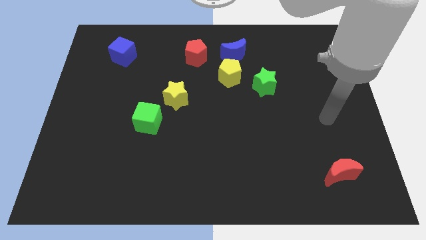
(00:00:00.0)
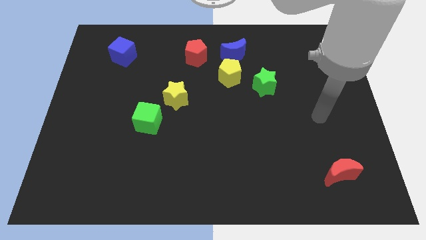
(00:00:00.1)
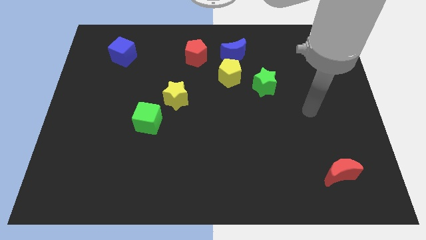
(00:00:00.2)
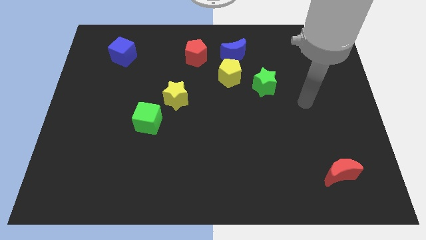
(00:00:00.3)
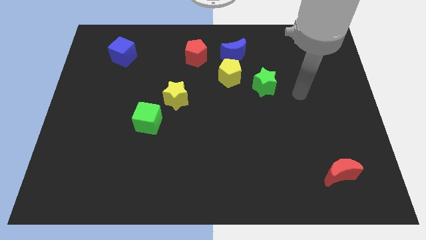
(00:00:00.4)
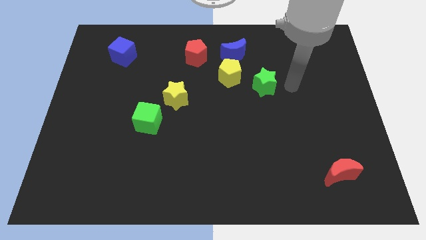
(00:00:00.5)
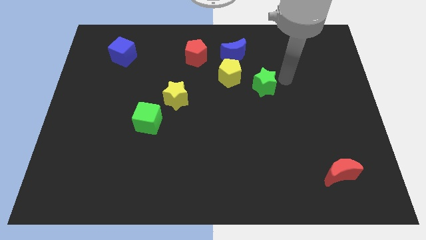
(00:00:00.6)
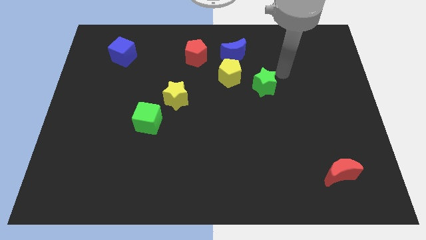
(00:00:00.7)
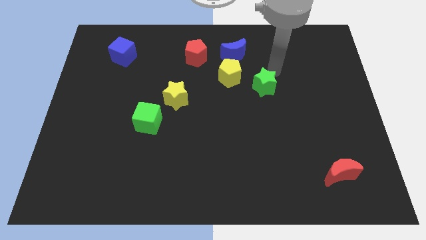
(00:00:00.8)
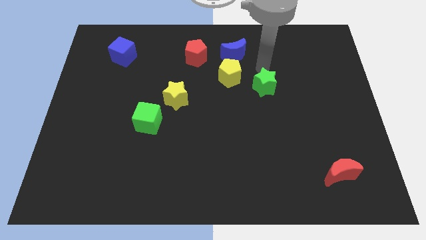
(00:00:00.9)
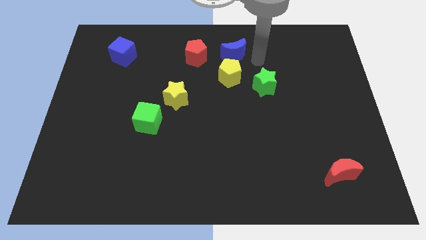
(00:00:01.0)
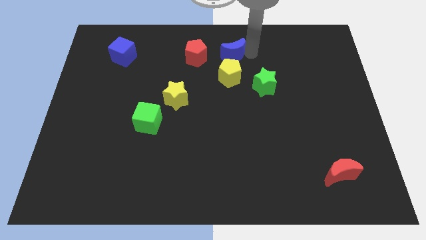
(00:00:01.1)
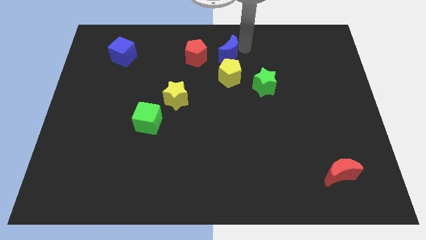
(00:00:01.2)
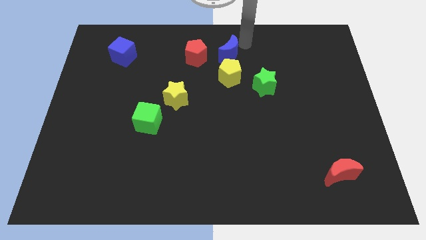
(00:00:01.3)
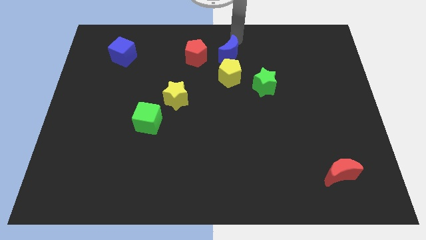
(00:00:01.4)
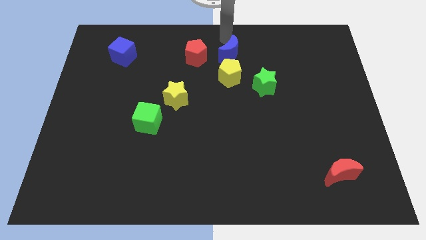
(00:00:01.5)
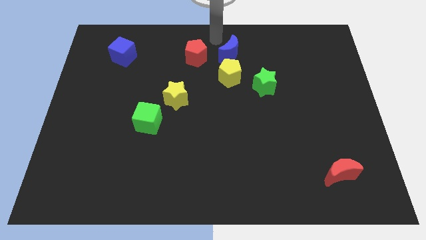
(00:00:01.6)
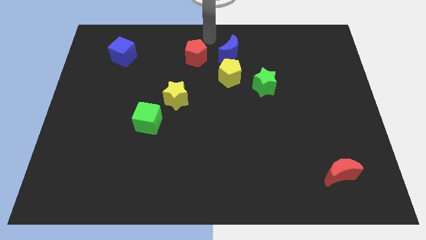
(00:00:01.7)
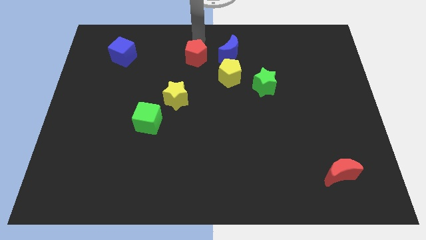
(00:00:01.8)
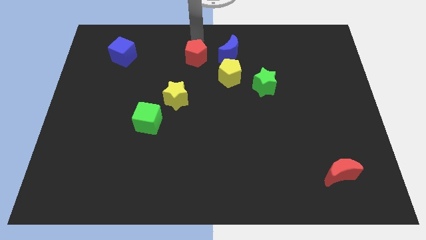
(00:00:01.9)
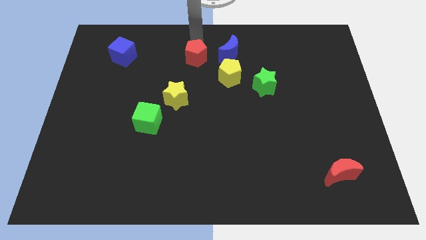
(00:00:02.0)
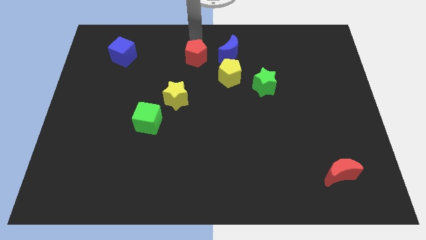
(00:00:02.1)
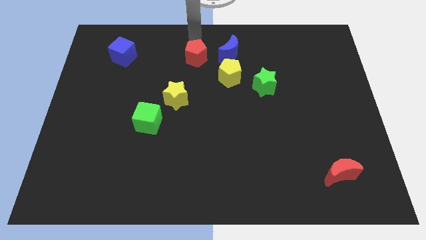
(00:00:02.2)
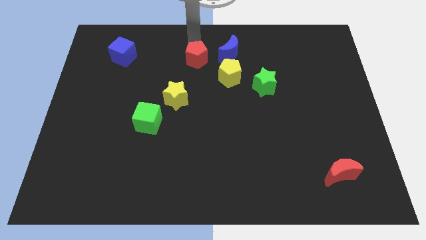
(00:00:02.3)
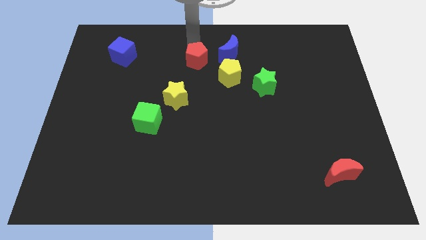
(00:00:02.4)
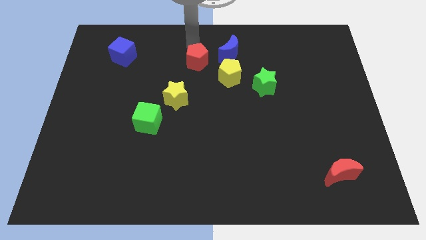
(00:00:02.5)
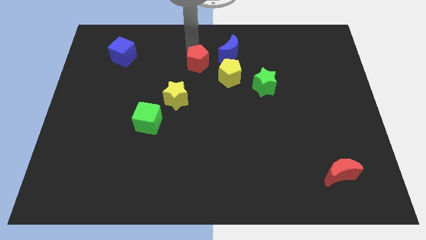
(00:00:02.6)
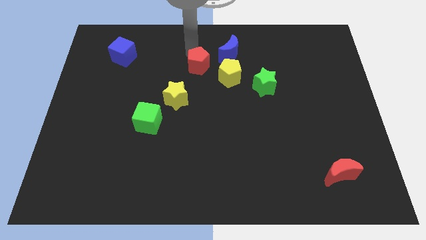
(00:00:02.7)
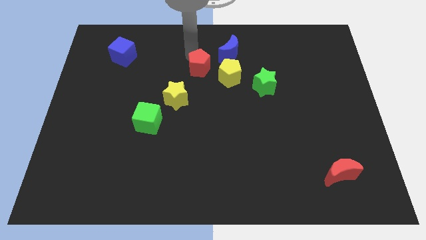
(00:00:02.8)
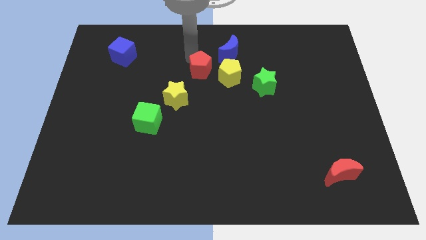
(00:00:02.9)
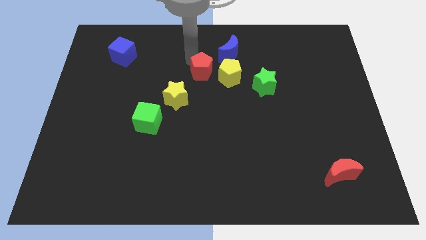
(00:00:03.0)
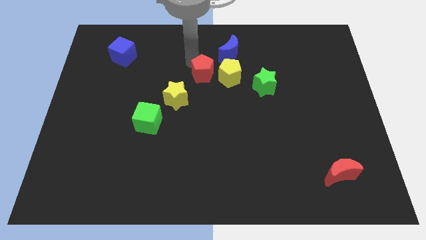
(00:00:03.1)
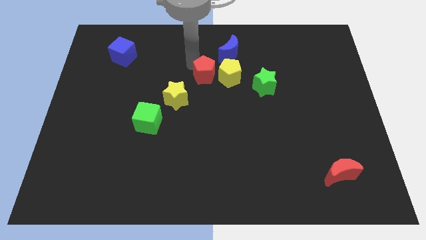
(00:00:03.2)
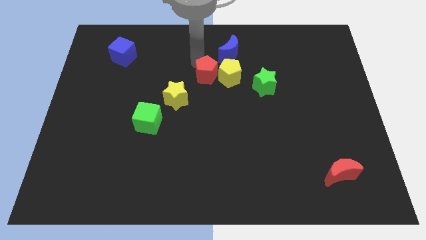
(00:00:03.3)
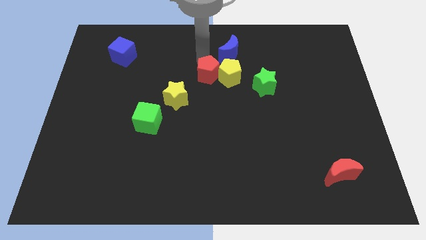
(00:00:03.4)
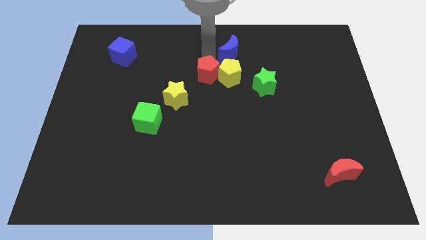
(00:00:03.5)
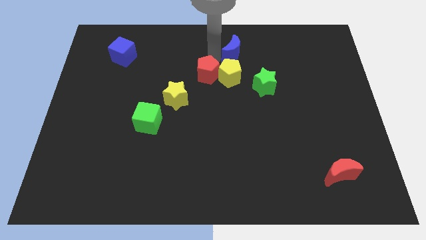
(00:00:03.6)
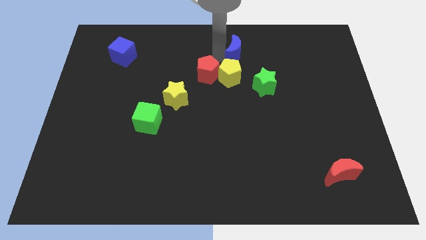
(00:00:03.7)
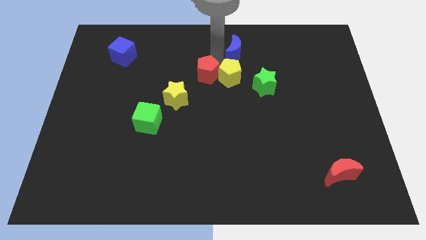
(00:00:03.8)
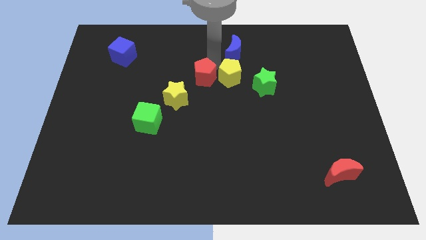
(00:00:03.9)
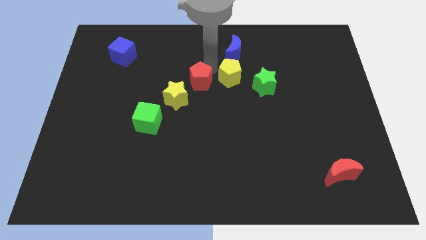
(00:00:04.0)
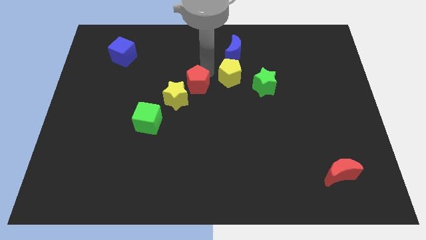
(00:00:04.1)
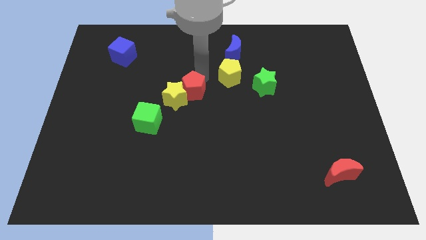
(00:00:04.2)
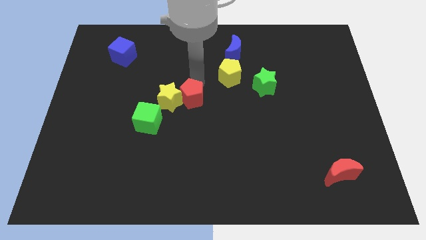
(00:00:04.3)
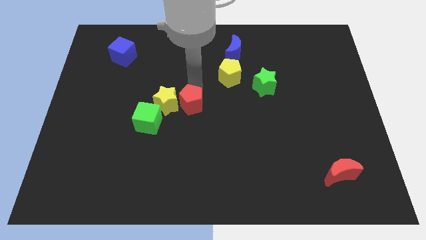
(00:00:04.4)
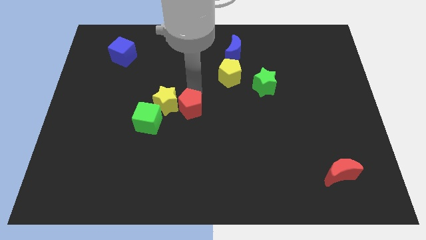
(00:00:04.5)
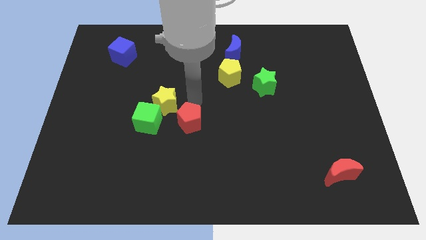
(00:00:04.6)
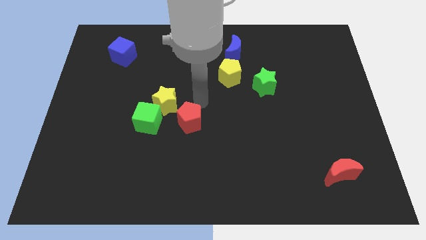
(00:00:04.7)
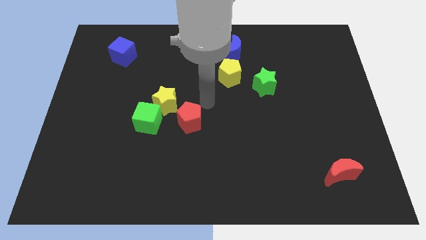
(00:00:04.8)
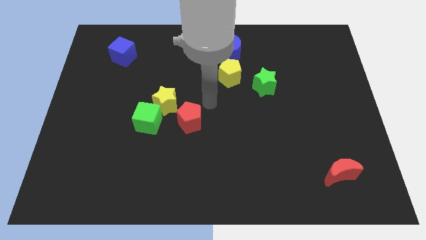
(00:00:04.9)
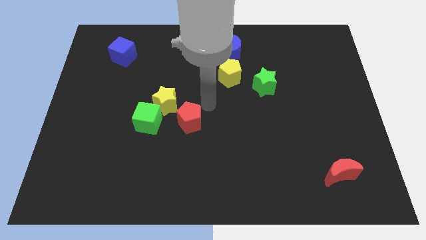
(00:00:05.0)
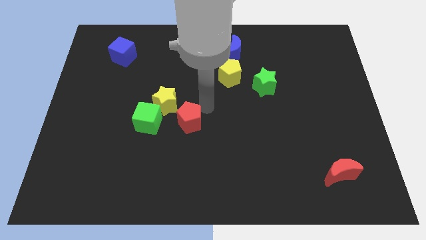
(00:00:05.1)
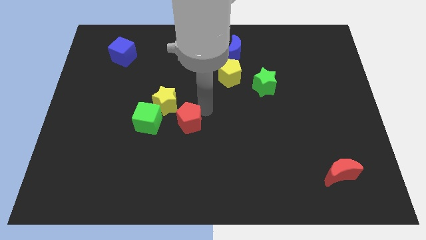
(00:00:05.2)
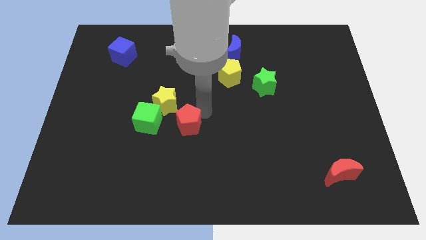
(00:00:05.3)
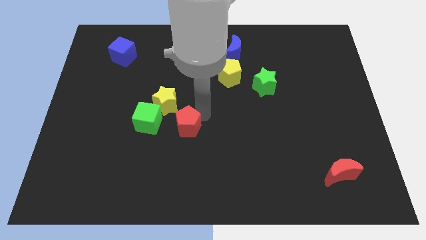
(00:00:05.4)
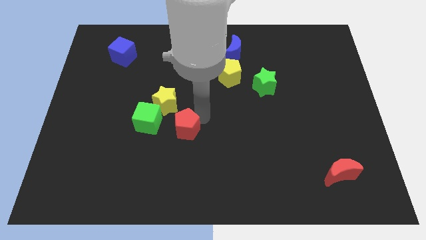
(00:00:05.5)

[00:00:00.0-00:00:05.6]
push the red pentagon to the bottom right of the green cube

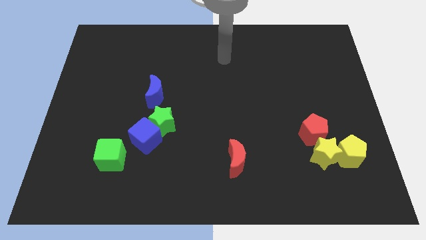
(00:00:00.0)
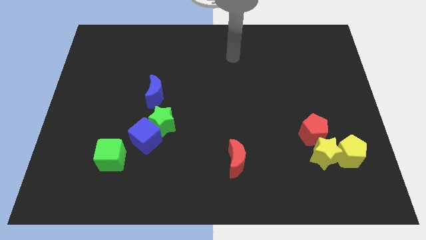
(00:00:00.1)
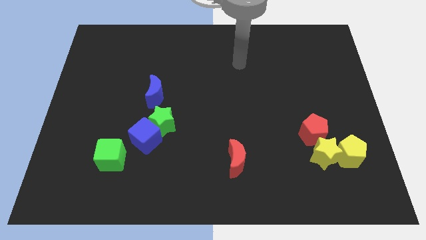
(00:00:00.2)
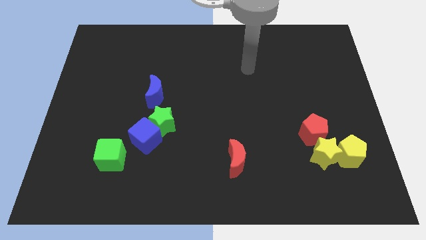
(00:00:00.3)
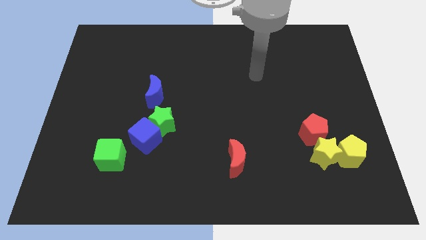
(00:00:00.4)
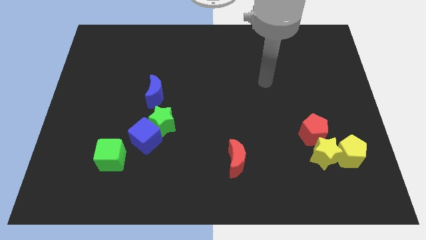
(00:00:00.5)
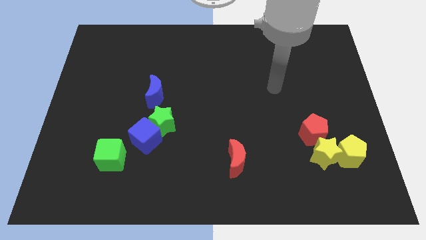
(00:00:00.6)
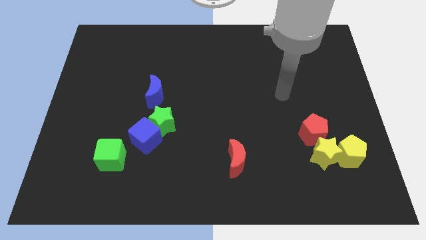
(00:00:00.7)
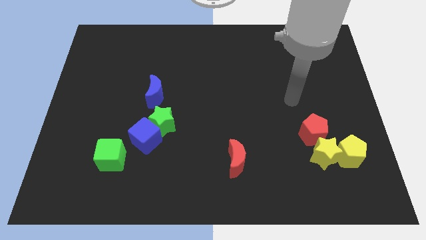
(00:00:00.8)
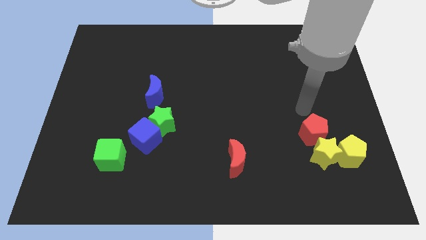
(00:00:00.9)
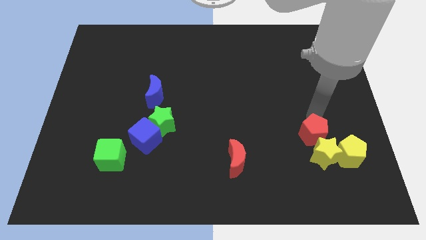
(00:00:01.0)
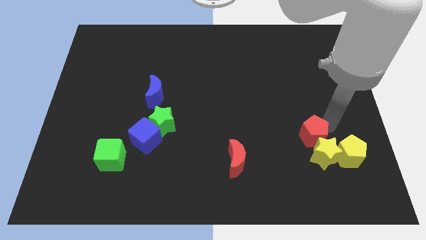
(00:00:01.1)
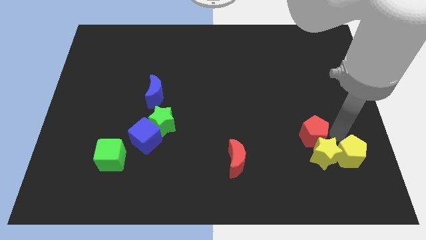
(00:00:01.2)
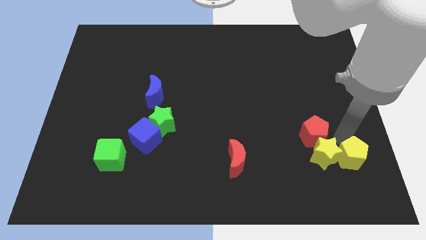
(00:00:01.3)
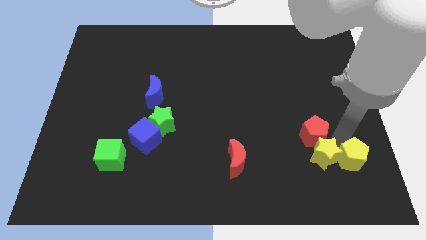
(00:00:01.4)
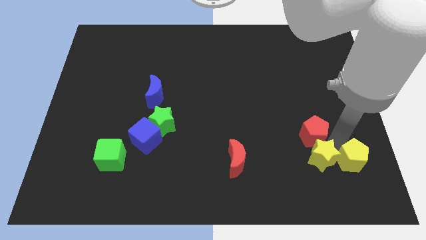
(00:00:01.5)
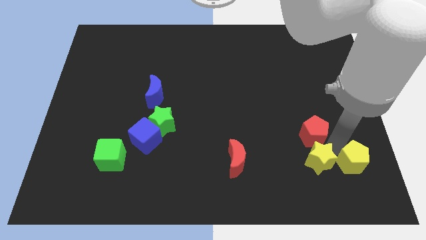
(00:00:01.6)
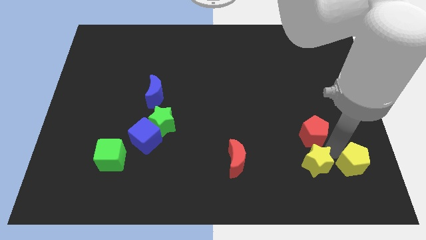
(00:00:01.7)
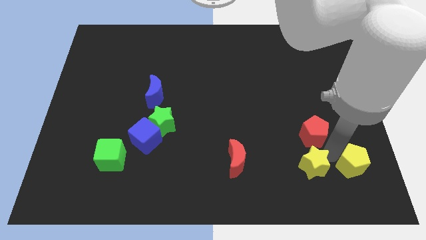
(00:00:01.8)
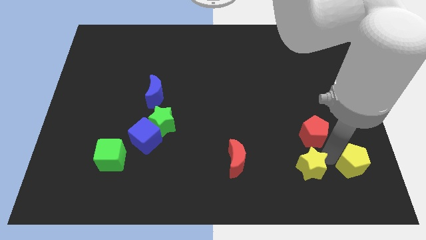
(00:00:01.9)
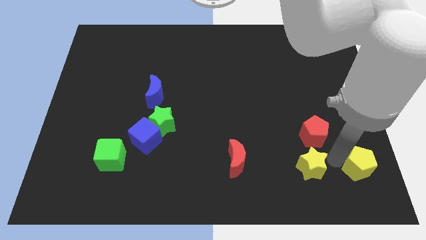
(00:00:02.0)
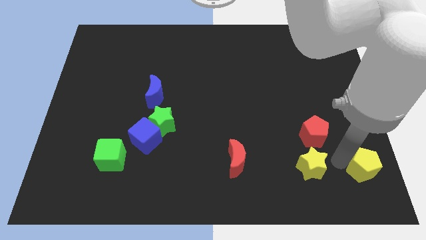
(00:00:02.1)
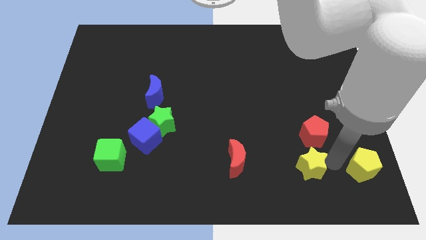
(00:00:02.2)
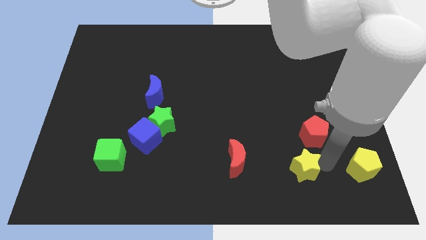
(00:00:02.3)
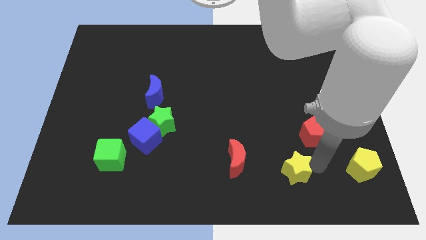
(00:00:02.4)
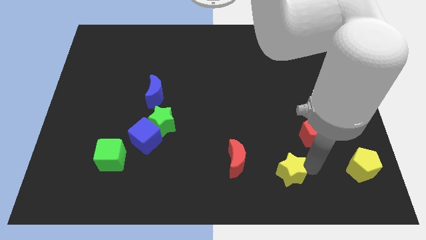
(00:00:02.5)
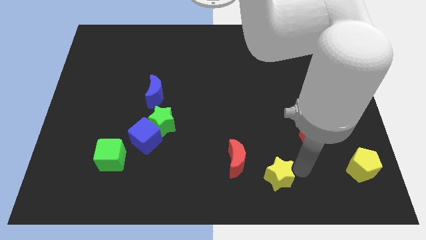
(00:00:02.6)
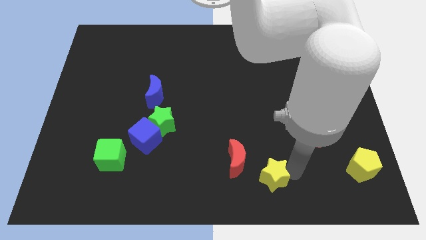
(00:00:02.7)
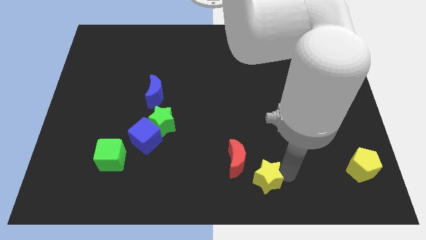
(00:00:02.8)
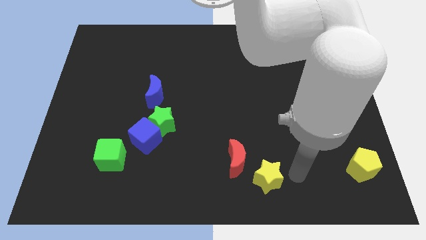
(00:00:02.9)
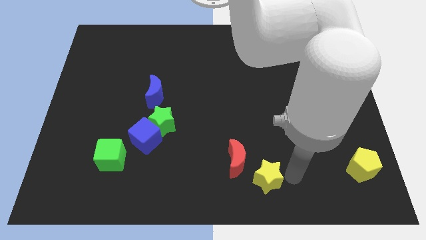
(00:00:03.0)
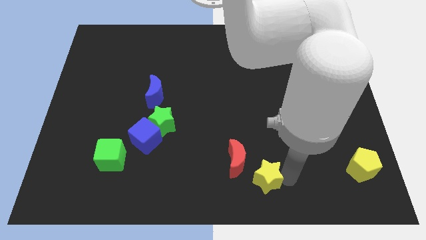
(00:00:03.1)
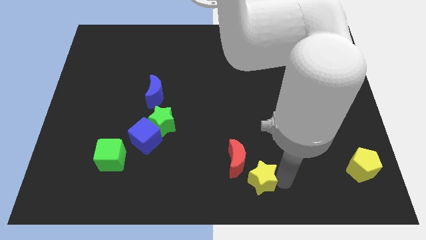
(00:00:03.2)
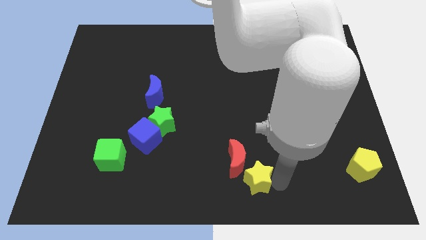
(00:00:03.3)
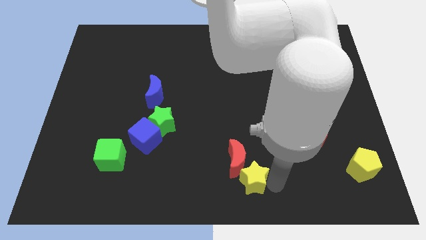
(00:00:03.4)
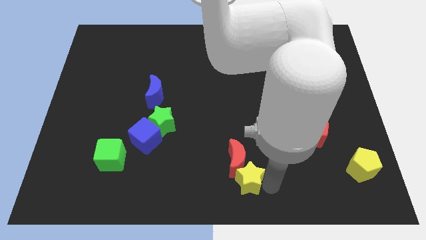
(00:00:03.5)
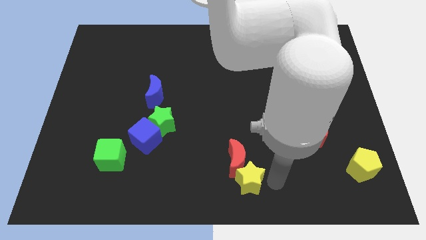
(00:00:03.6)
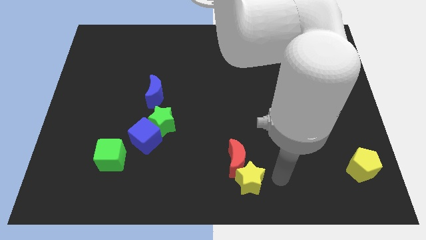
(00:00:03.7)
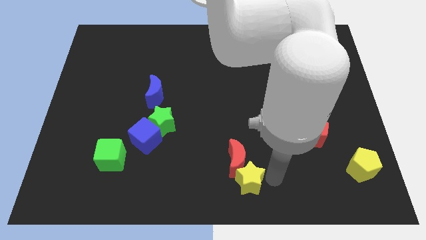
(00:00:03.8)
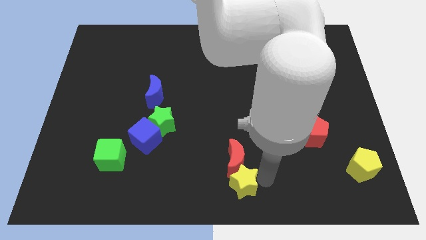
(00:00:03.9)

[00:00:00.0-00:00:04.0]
push the yellow star diagonally down and to the left of the red moon
